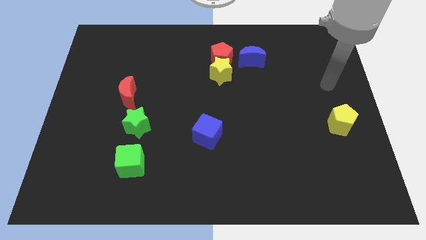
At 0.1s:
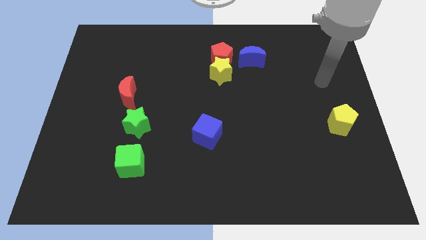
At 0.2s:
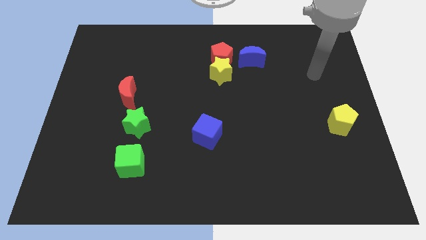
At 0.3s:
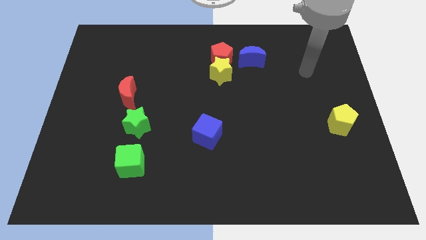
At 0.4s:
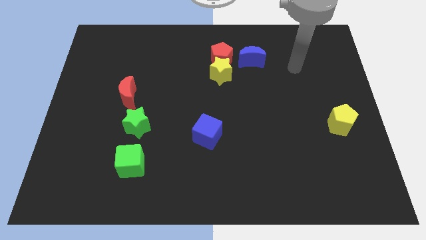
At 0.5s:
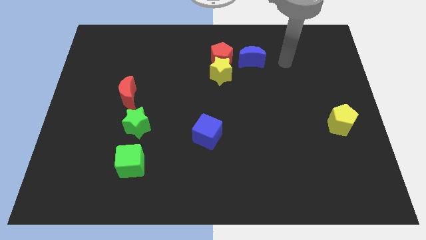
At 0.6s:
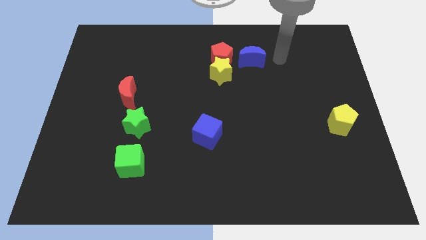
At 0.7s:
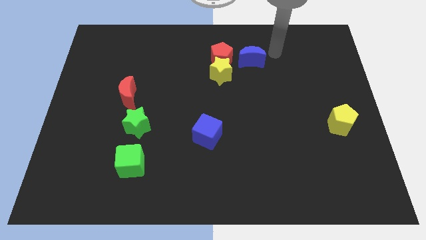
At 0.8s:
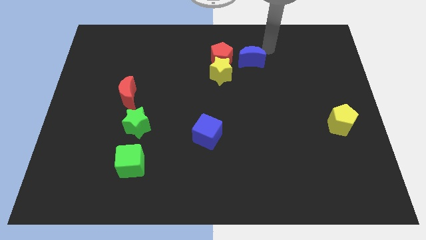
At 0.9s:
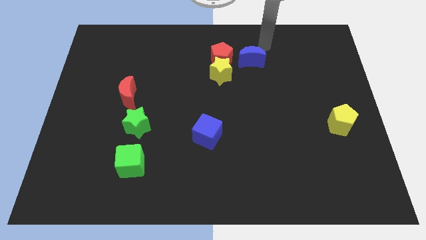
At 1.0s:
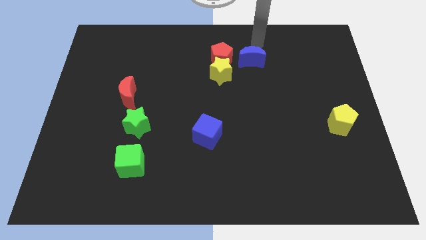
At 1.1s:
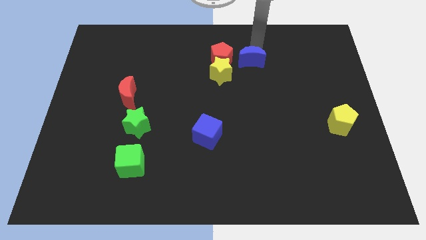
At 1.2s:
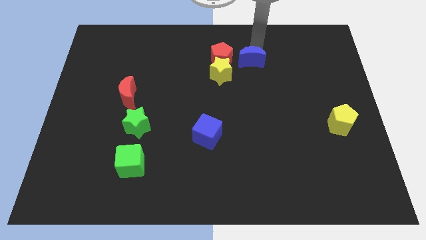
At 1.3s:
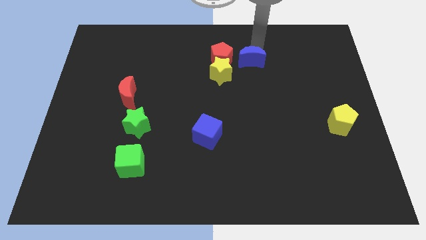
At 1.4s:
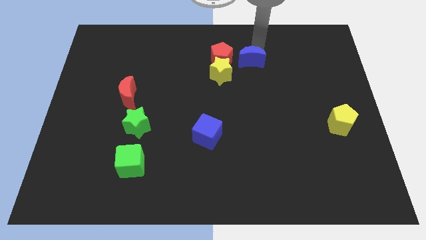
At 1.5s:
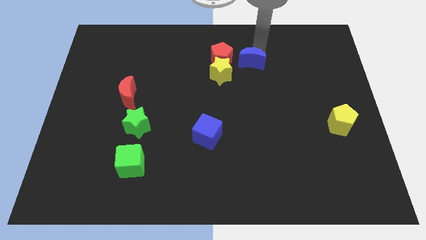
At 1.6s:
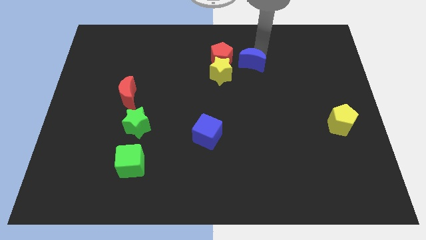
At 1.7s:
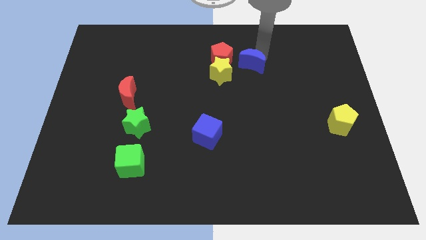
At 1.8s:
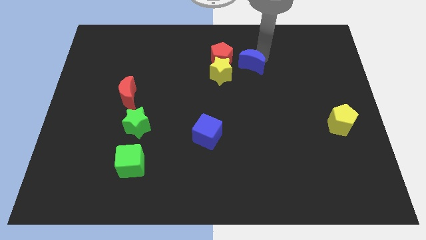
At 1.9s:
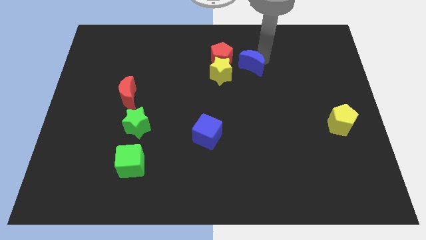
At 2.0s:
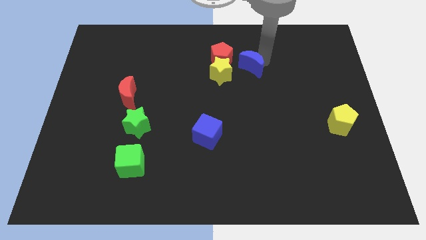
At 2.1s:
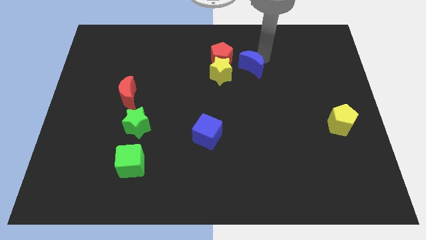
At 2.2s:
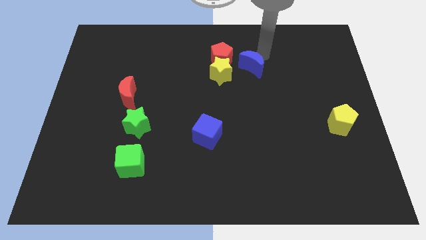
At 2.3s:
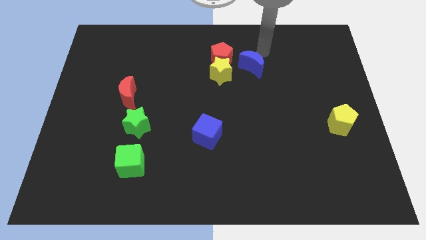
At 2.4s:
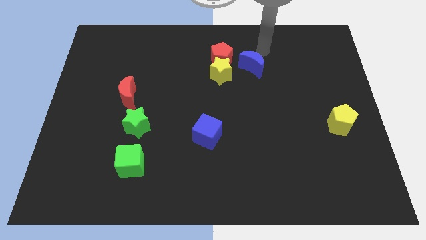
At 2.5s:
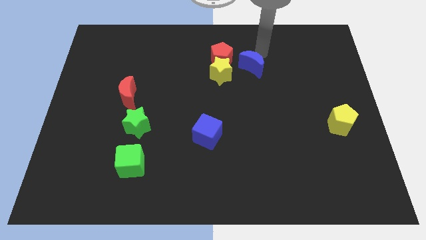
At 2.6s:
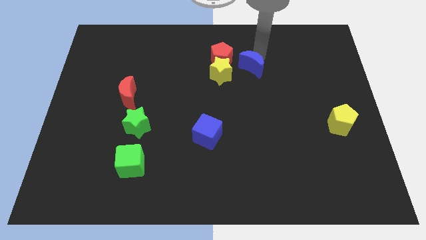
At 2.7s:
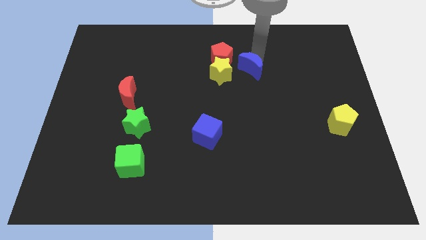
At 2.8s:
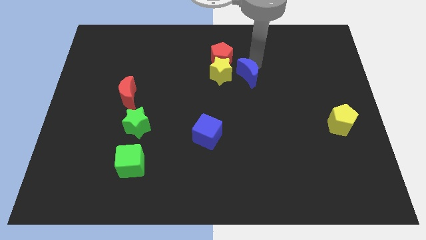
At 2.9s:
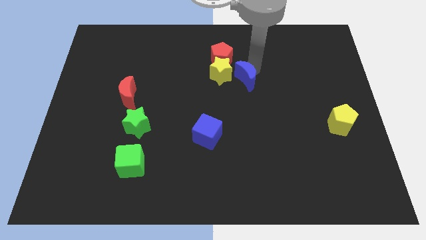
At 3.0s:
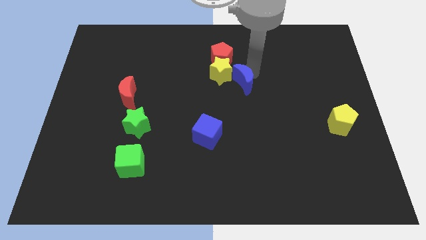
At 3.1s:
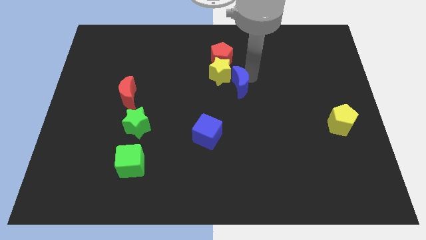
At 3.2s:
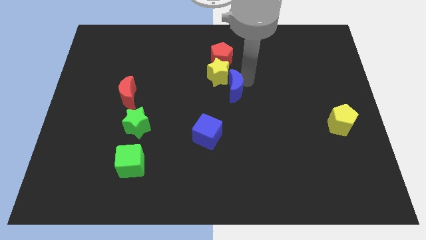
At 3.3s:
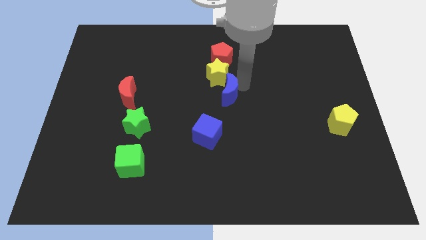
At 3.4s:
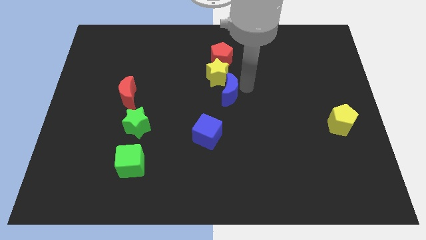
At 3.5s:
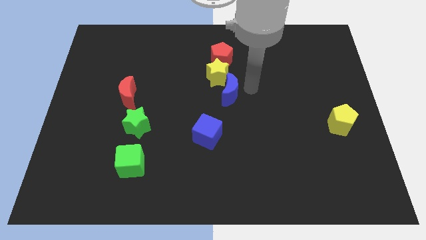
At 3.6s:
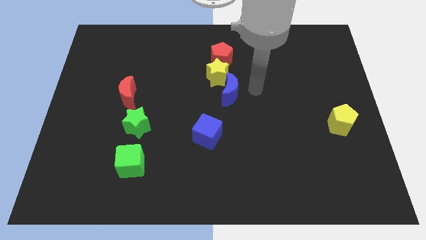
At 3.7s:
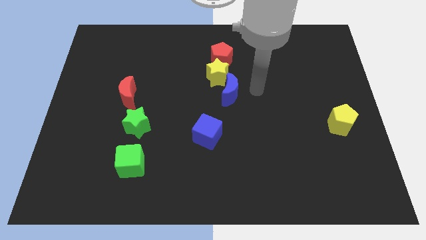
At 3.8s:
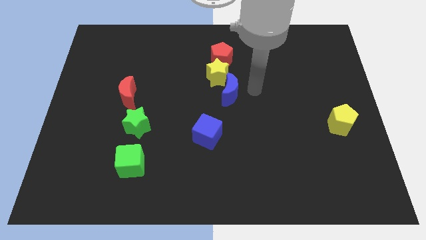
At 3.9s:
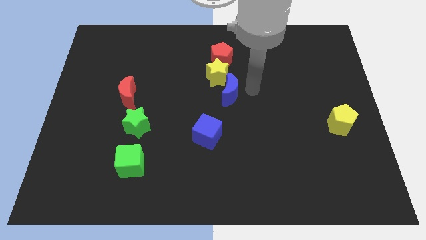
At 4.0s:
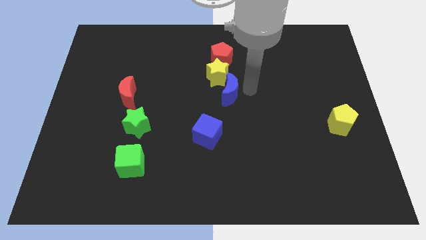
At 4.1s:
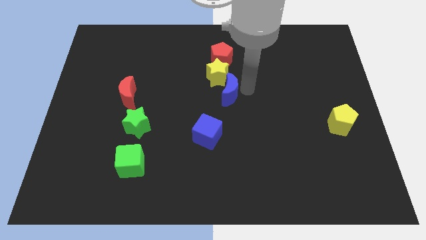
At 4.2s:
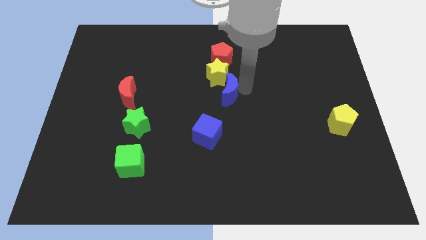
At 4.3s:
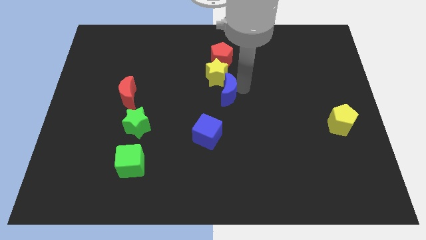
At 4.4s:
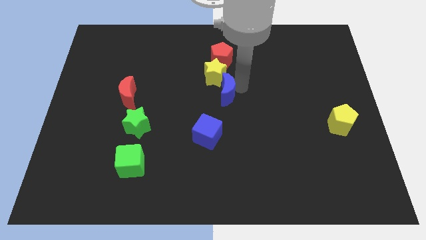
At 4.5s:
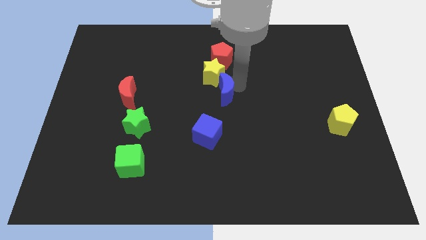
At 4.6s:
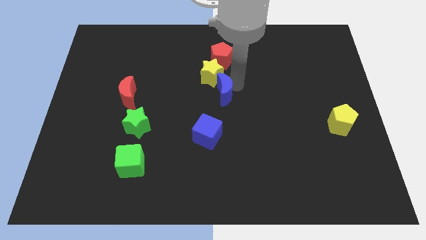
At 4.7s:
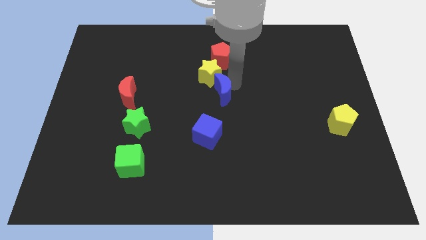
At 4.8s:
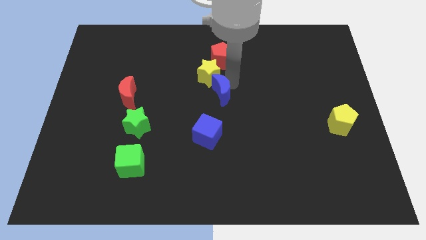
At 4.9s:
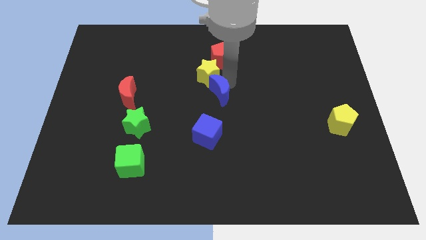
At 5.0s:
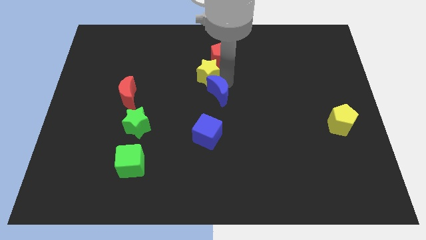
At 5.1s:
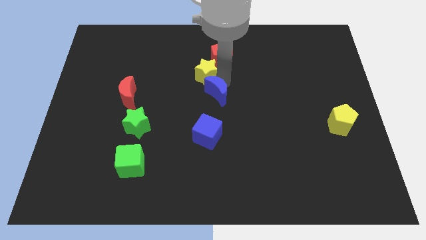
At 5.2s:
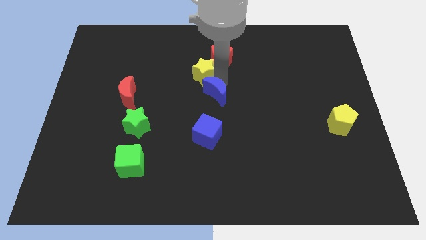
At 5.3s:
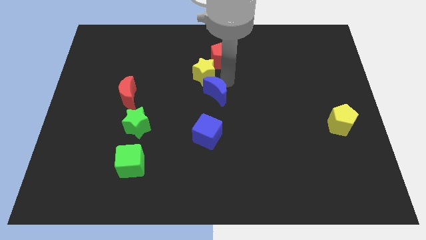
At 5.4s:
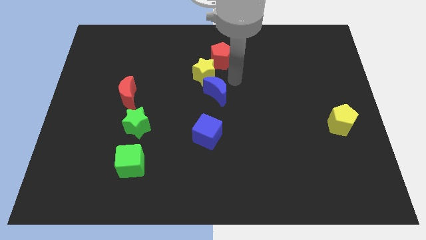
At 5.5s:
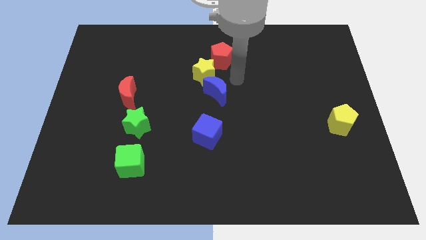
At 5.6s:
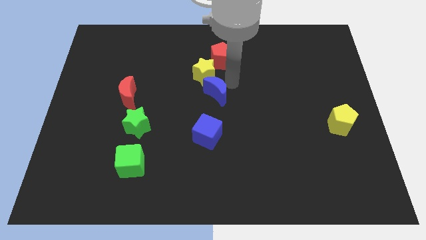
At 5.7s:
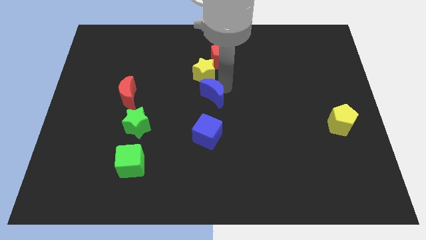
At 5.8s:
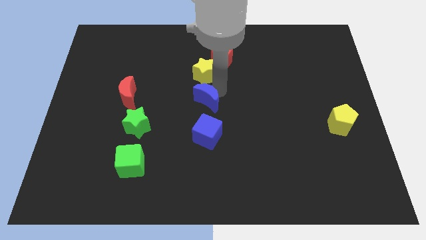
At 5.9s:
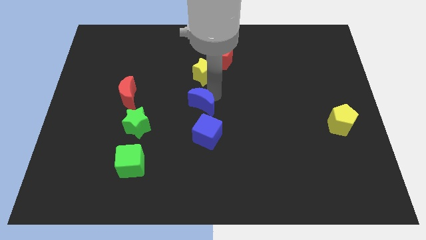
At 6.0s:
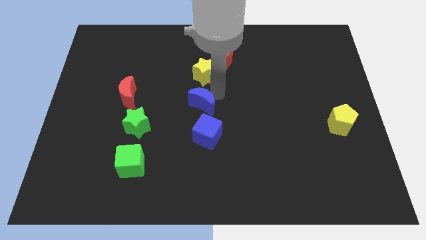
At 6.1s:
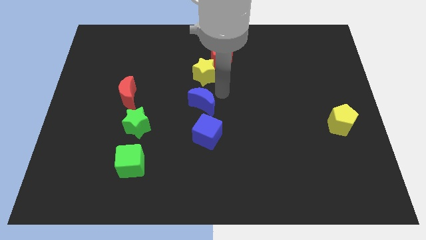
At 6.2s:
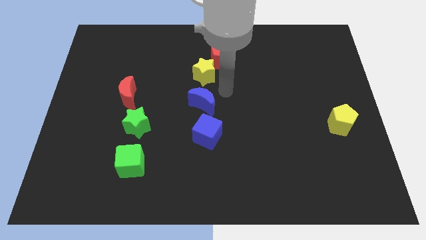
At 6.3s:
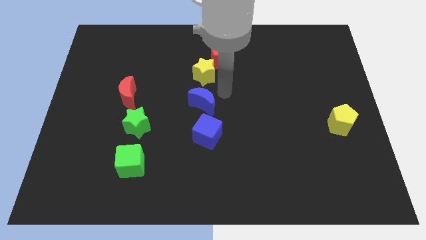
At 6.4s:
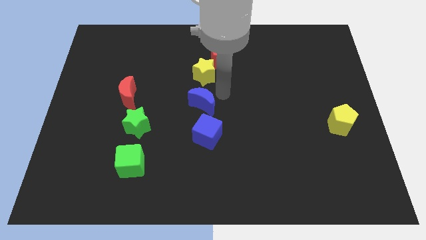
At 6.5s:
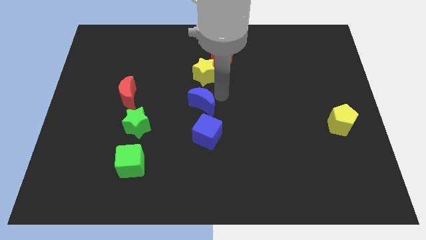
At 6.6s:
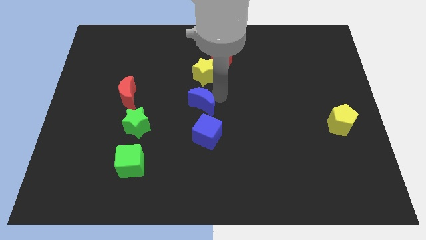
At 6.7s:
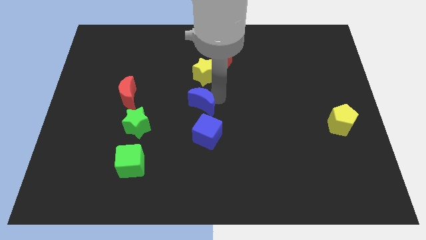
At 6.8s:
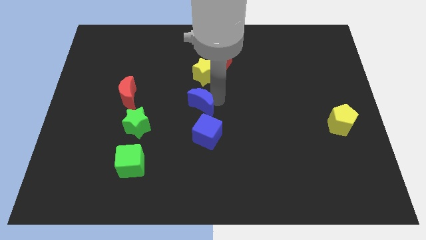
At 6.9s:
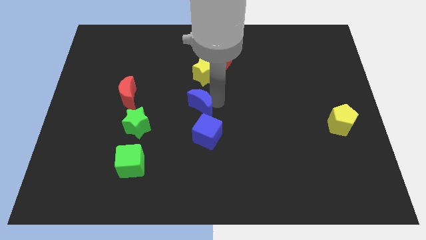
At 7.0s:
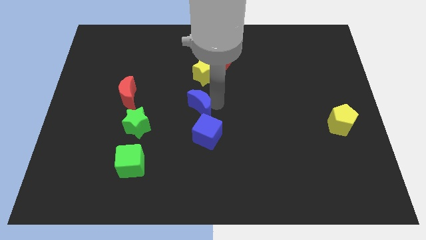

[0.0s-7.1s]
slide the blue moon diagonally down and left

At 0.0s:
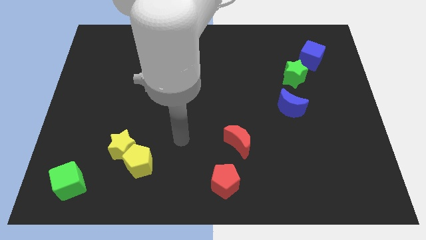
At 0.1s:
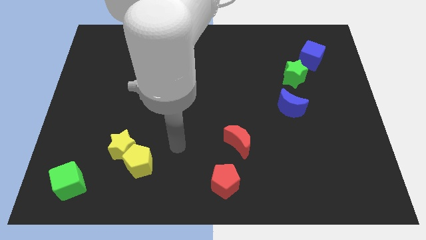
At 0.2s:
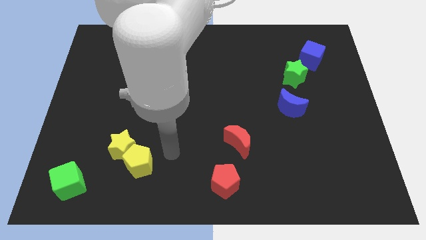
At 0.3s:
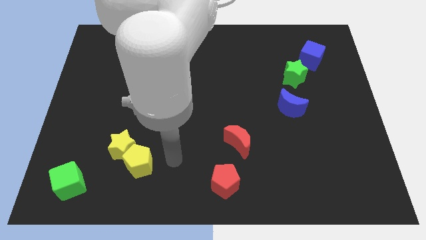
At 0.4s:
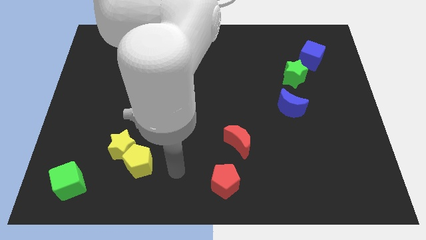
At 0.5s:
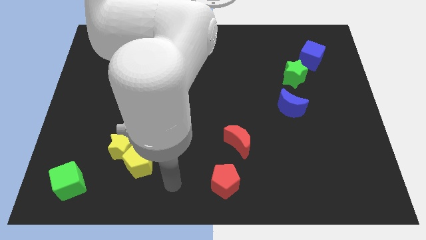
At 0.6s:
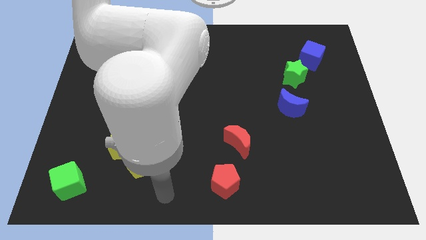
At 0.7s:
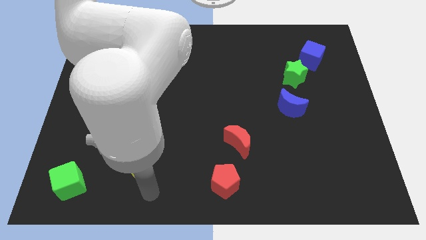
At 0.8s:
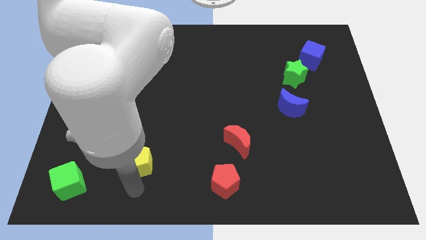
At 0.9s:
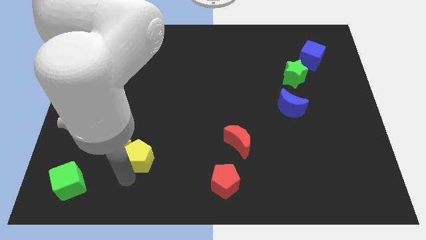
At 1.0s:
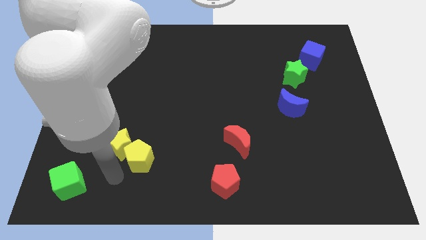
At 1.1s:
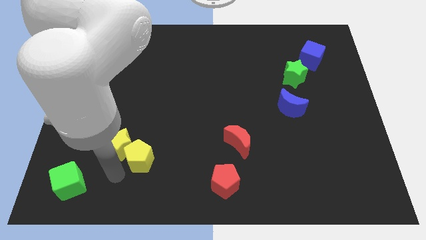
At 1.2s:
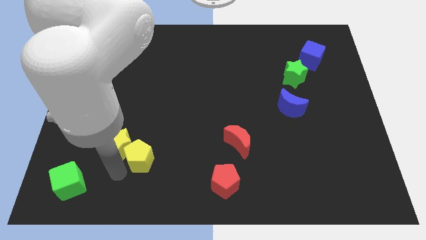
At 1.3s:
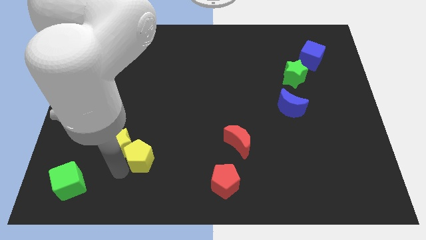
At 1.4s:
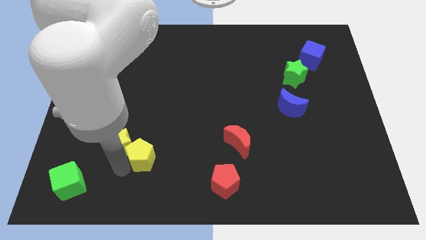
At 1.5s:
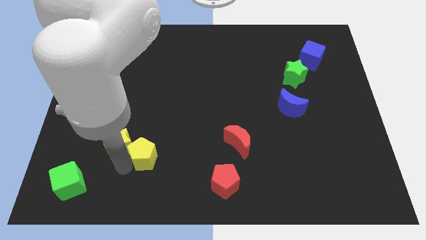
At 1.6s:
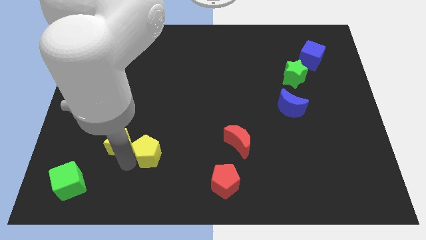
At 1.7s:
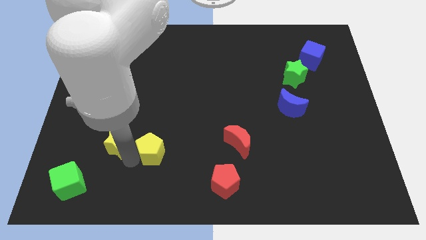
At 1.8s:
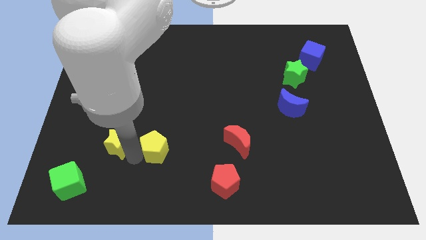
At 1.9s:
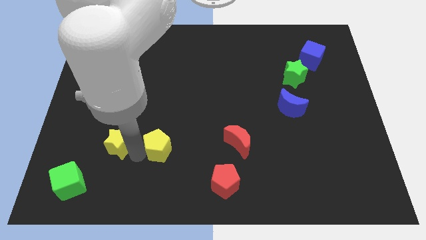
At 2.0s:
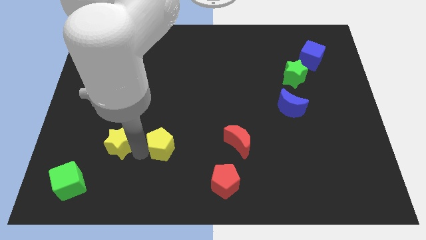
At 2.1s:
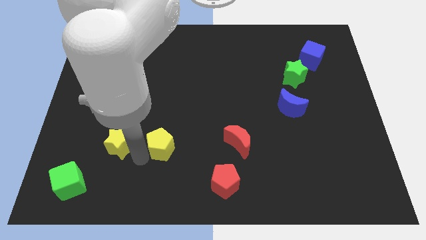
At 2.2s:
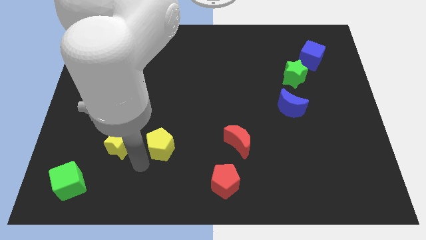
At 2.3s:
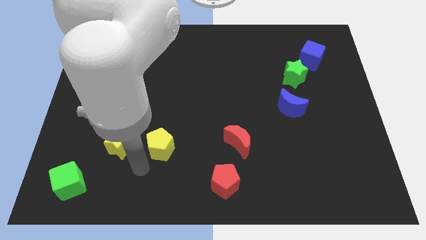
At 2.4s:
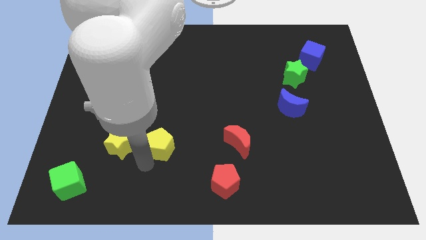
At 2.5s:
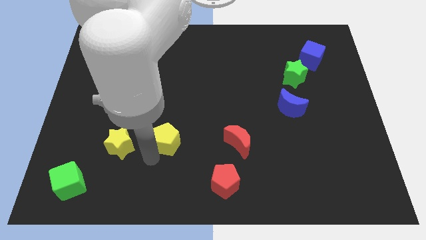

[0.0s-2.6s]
move the yellow pentagon a little bit upwards and right diagonally
